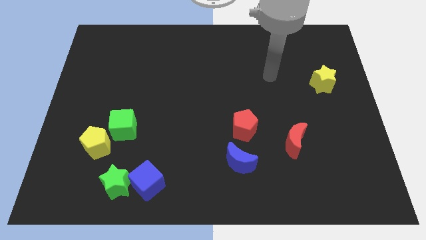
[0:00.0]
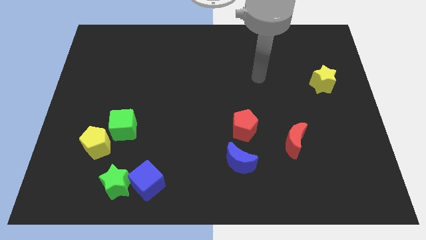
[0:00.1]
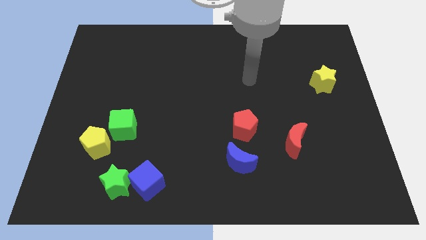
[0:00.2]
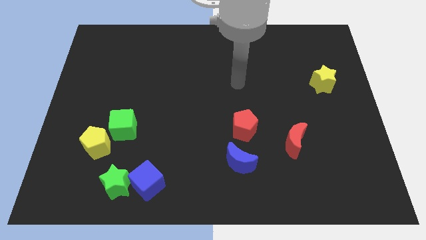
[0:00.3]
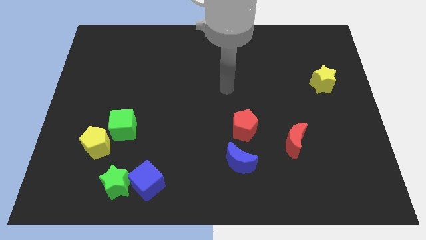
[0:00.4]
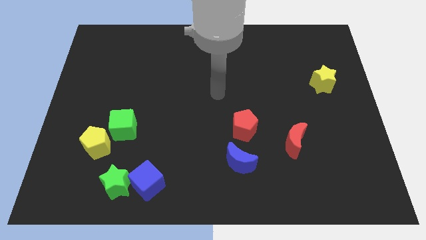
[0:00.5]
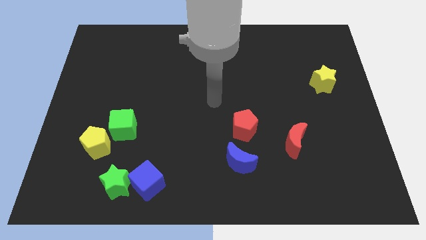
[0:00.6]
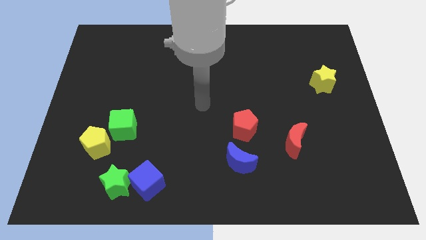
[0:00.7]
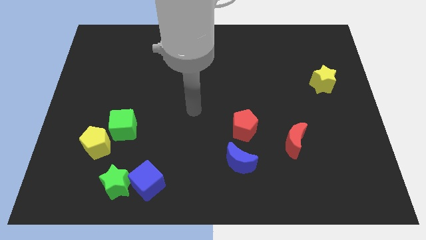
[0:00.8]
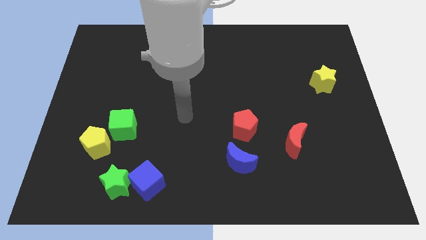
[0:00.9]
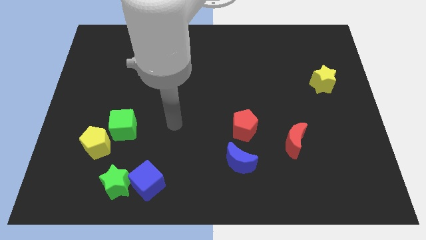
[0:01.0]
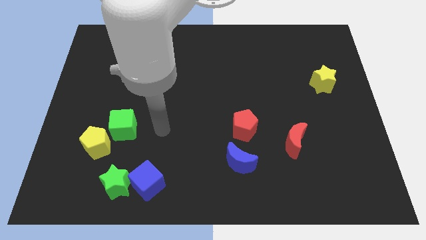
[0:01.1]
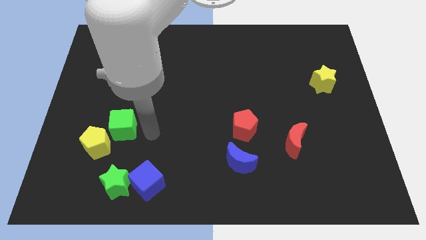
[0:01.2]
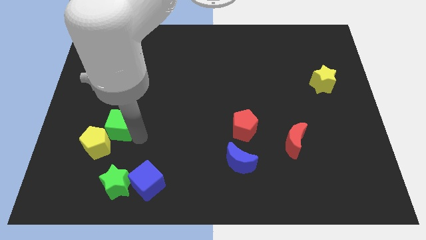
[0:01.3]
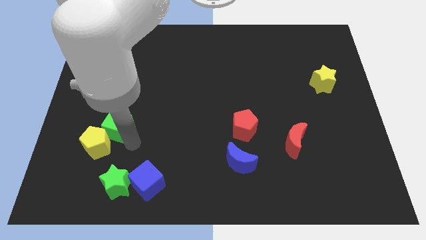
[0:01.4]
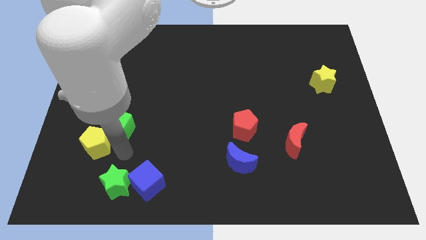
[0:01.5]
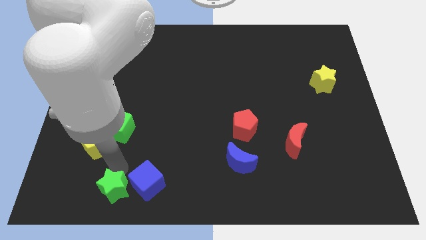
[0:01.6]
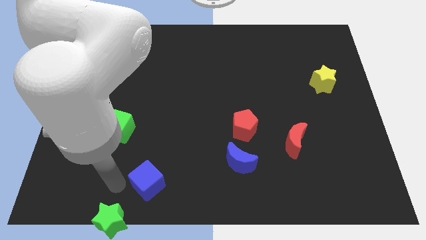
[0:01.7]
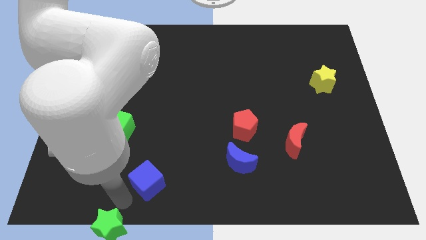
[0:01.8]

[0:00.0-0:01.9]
pull the blue cube apart from the green star

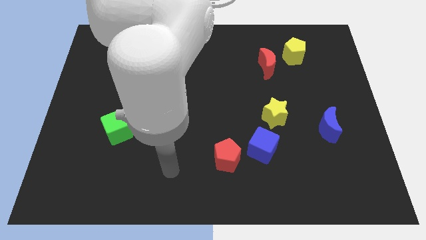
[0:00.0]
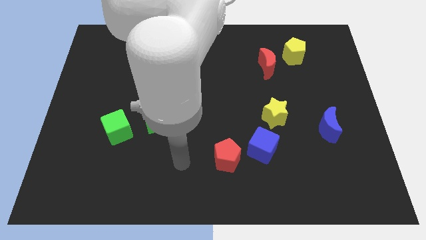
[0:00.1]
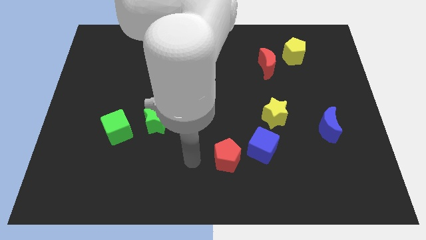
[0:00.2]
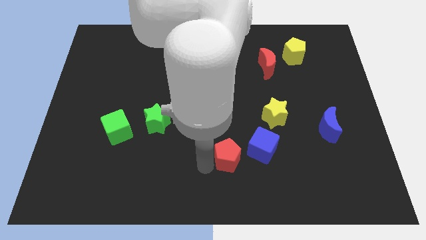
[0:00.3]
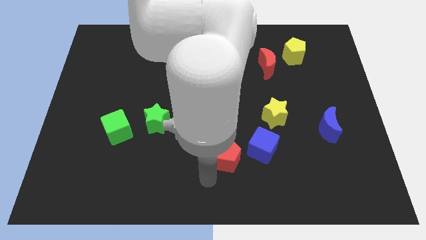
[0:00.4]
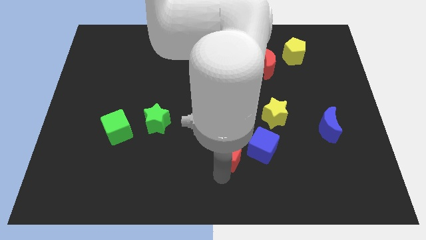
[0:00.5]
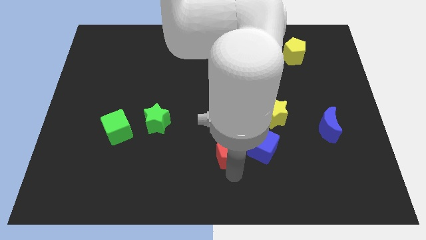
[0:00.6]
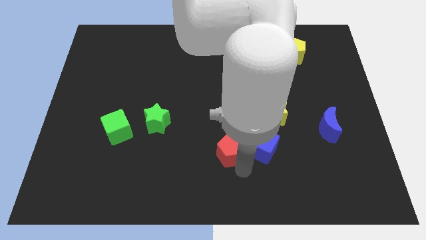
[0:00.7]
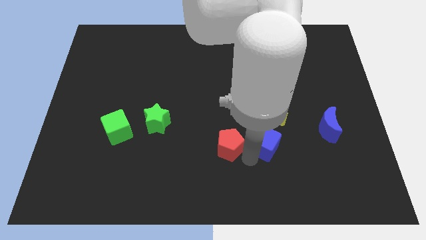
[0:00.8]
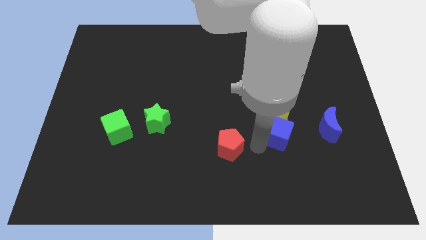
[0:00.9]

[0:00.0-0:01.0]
separate the red pentagon from the blue cube

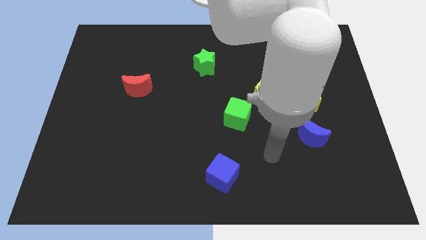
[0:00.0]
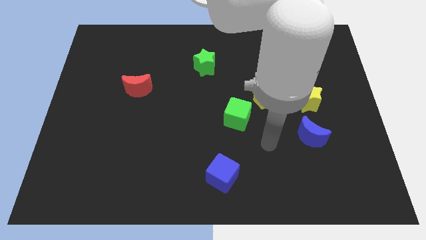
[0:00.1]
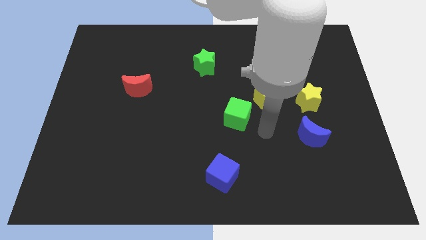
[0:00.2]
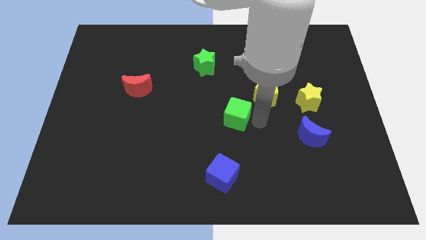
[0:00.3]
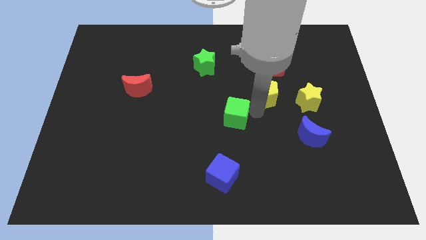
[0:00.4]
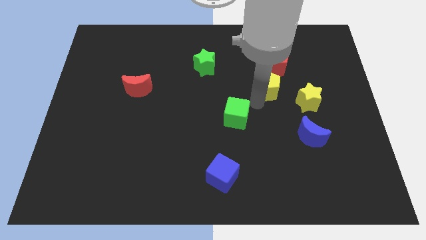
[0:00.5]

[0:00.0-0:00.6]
pull the green cube apart from the yellow pentagon

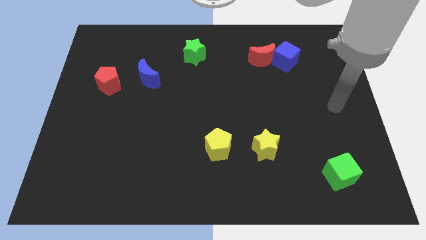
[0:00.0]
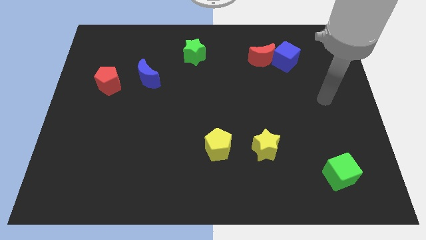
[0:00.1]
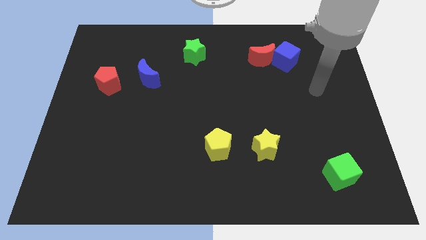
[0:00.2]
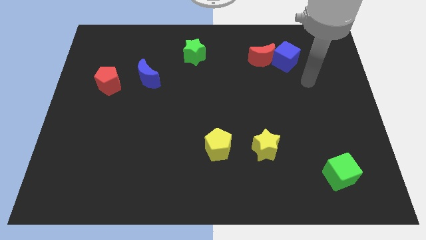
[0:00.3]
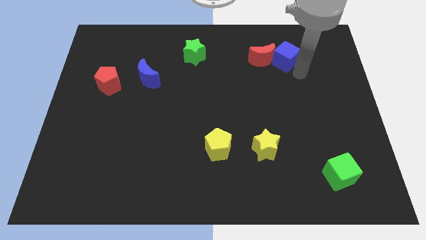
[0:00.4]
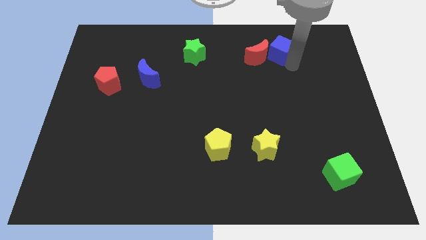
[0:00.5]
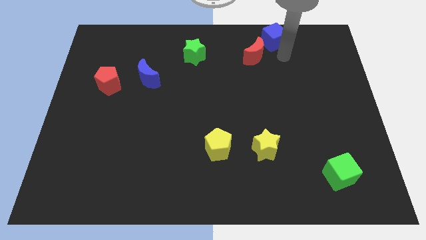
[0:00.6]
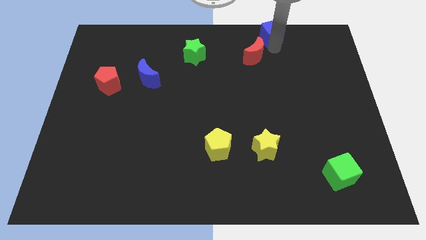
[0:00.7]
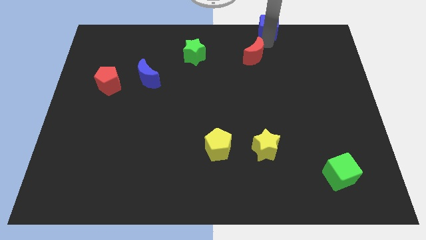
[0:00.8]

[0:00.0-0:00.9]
pull the red moon apart from the blue cube

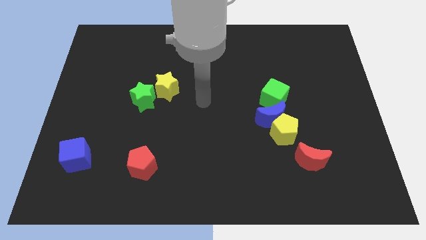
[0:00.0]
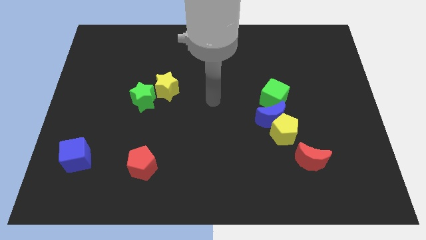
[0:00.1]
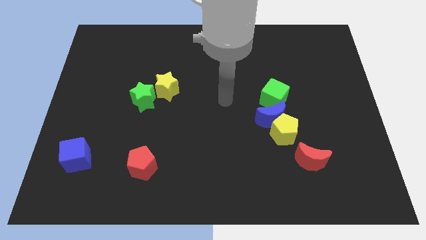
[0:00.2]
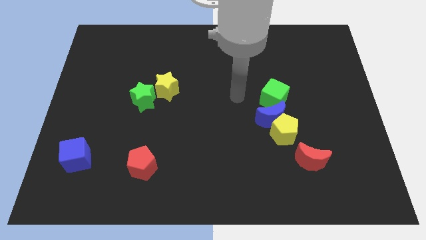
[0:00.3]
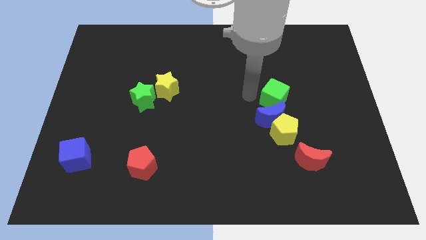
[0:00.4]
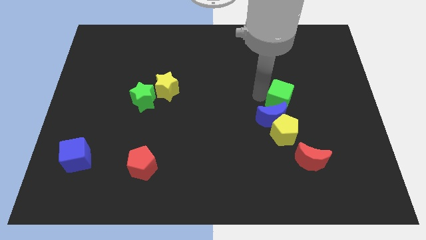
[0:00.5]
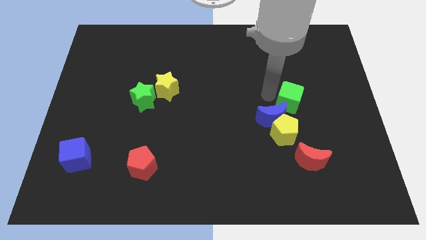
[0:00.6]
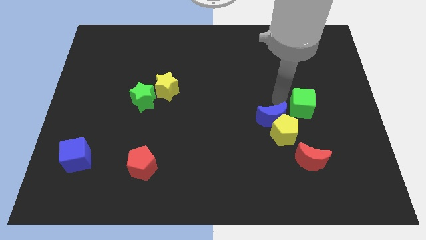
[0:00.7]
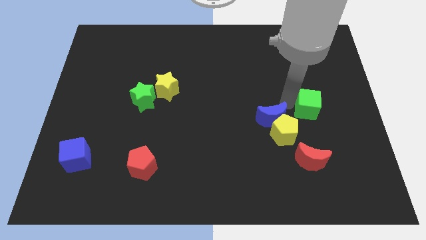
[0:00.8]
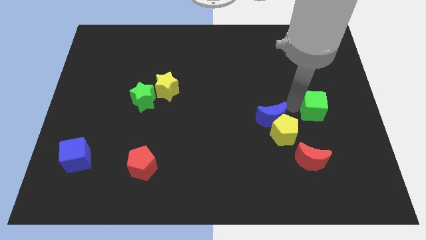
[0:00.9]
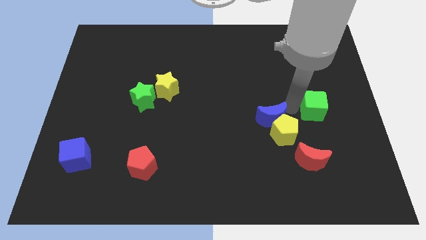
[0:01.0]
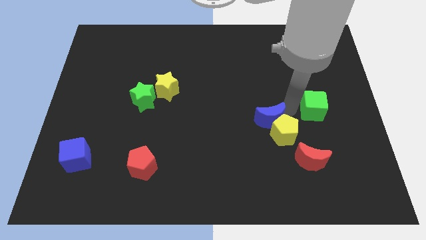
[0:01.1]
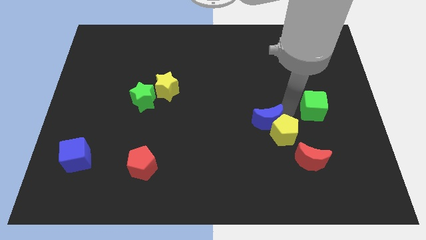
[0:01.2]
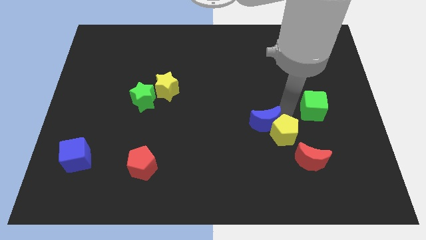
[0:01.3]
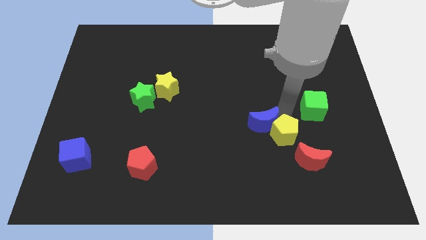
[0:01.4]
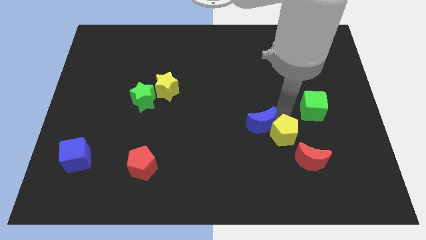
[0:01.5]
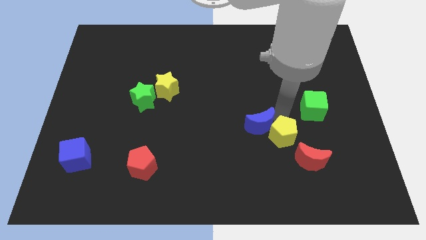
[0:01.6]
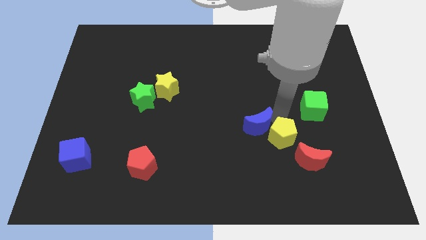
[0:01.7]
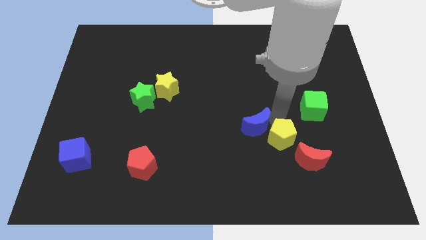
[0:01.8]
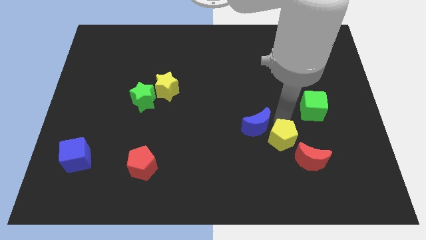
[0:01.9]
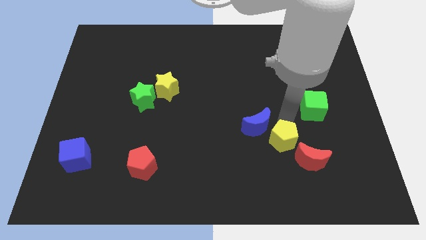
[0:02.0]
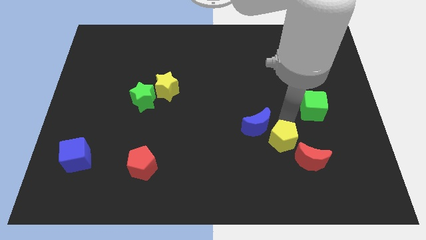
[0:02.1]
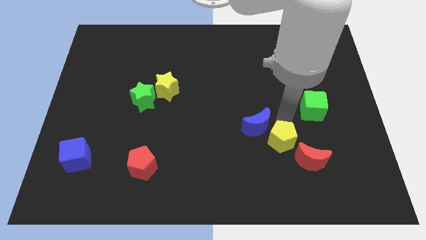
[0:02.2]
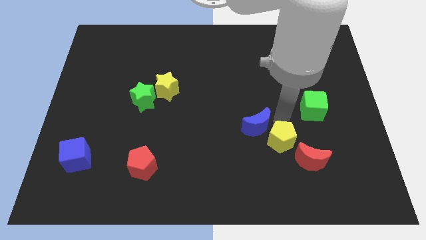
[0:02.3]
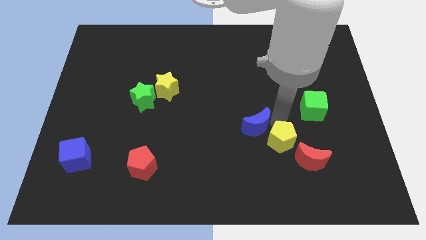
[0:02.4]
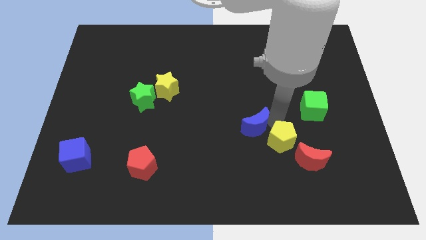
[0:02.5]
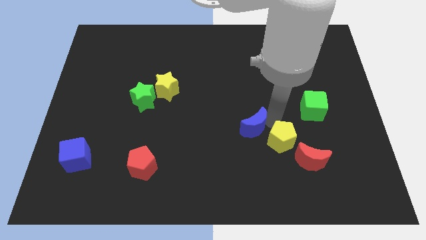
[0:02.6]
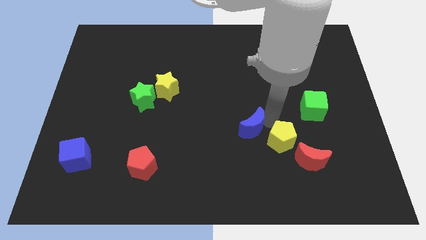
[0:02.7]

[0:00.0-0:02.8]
separate the blue moon from the yellow pentagon and green cube

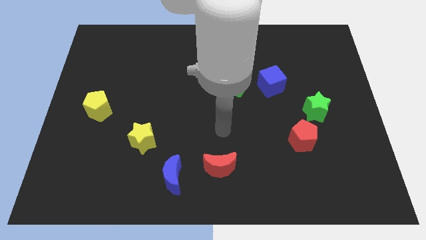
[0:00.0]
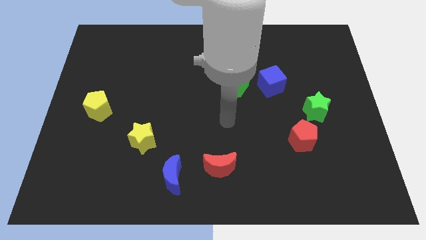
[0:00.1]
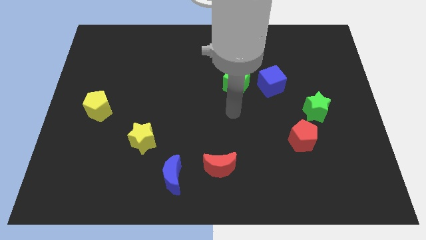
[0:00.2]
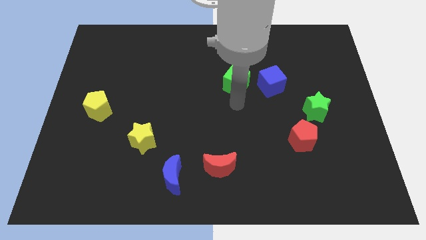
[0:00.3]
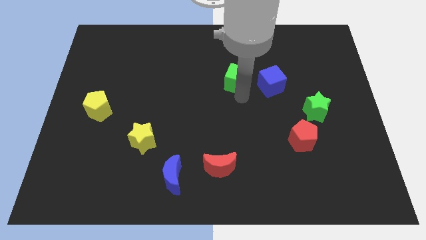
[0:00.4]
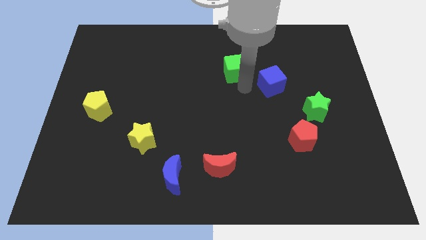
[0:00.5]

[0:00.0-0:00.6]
separate the blue cube from the green cube

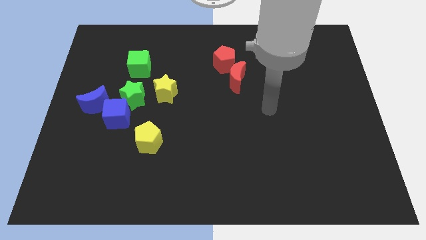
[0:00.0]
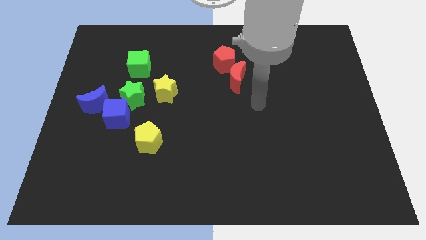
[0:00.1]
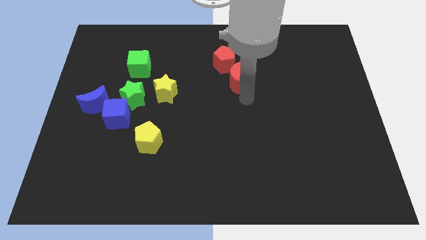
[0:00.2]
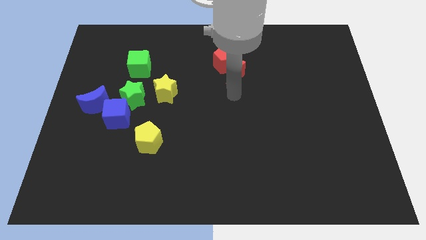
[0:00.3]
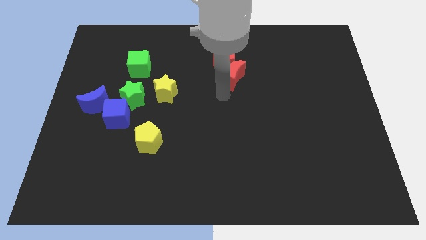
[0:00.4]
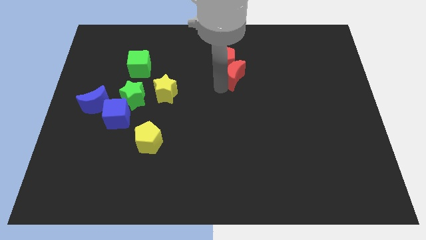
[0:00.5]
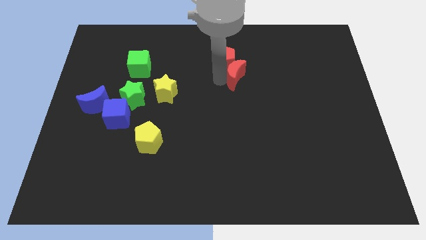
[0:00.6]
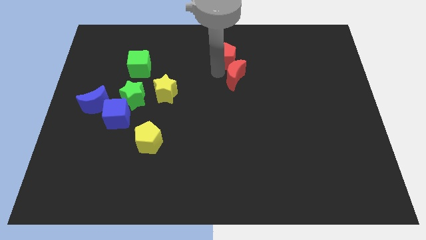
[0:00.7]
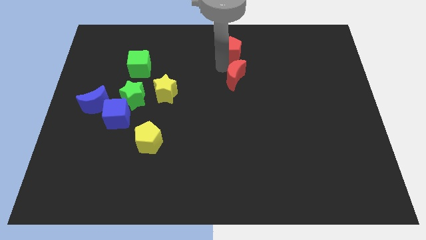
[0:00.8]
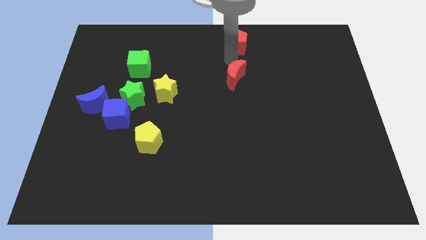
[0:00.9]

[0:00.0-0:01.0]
pull the red moon apart from the red pentagon

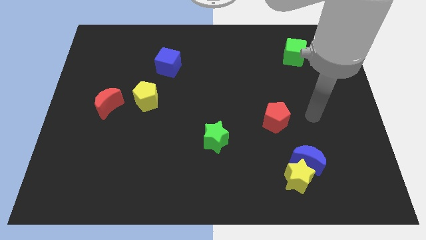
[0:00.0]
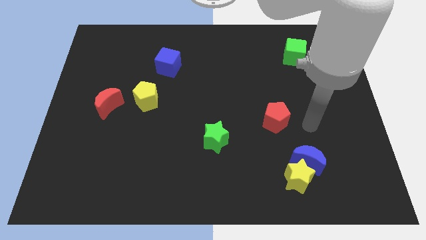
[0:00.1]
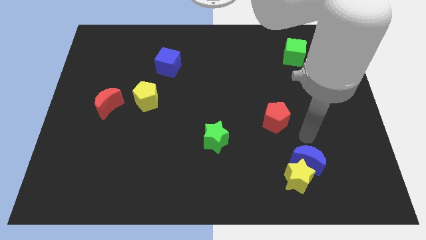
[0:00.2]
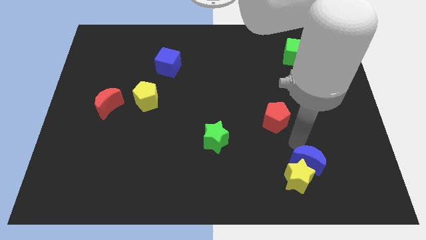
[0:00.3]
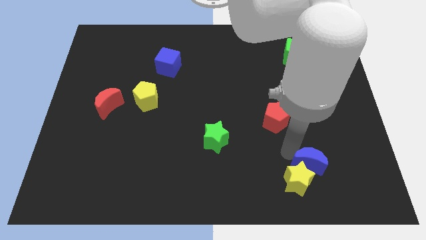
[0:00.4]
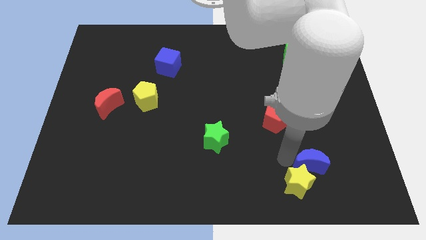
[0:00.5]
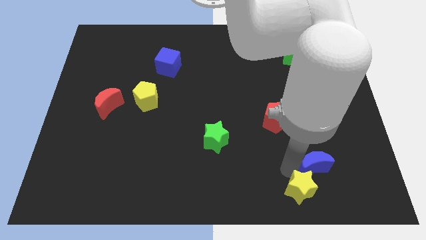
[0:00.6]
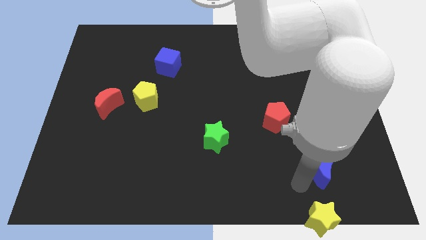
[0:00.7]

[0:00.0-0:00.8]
pull the blue moon apart from the yellow star
